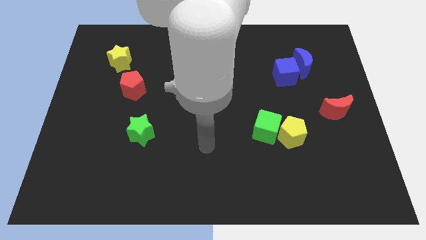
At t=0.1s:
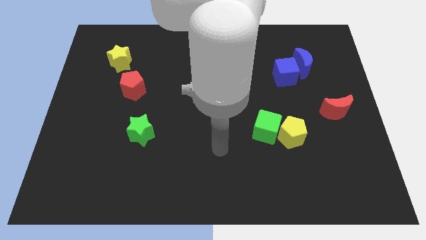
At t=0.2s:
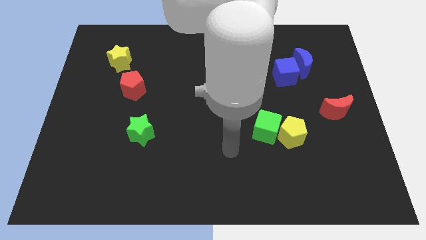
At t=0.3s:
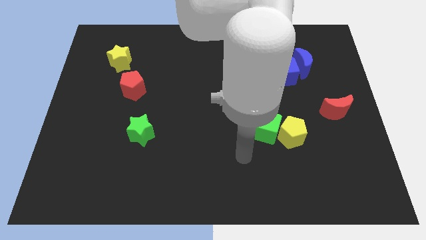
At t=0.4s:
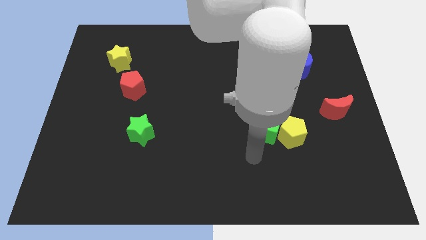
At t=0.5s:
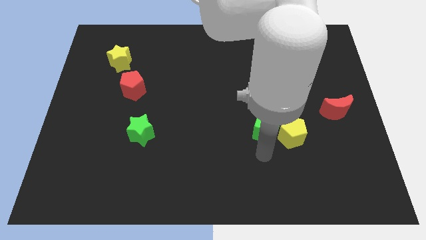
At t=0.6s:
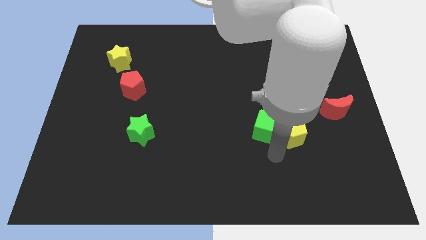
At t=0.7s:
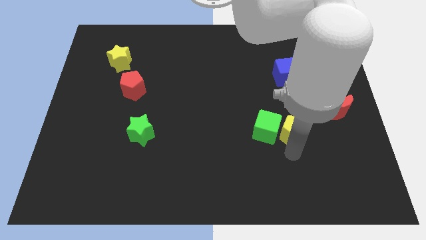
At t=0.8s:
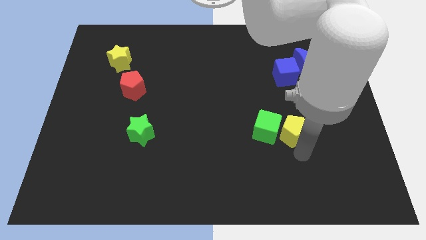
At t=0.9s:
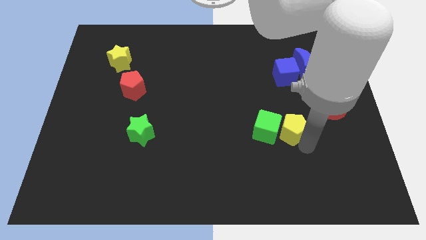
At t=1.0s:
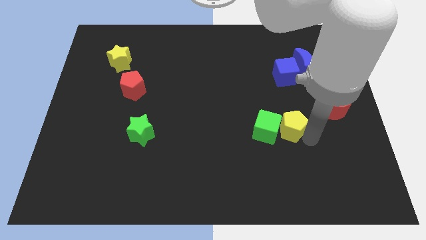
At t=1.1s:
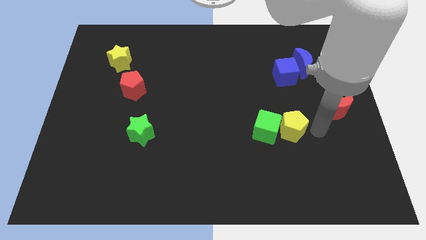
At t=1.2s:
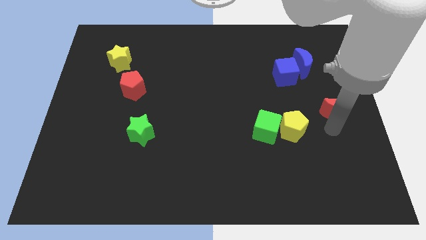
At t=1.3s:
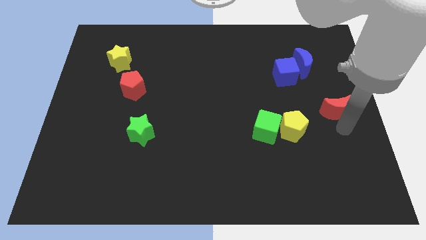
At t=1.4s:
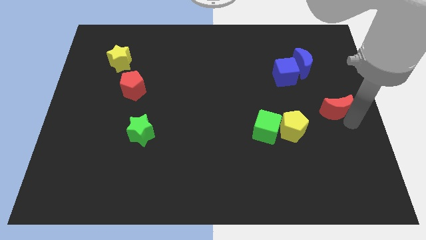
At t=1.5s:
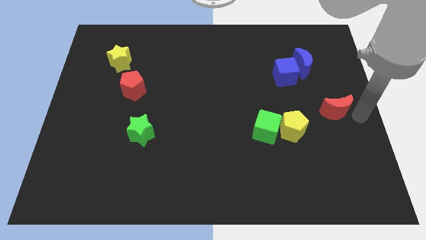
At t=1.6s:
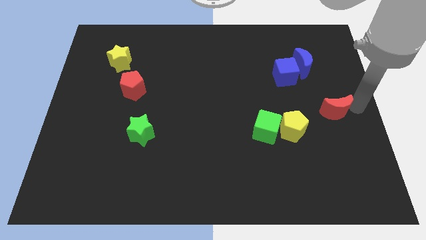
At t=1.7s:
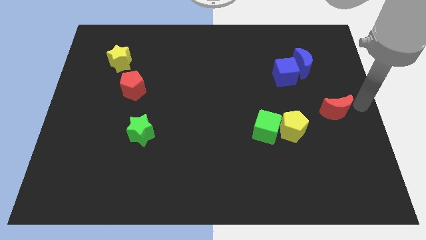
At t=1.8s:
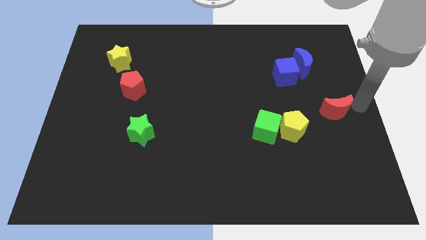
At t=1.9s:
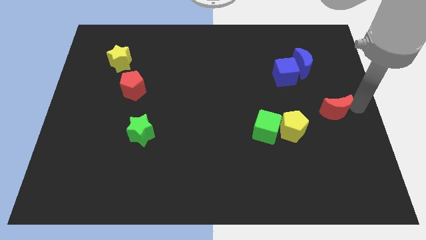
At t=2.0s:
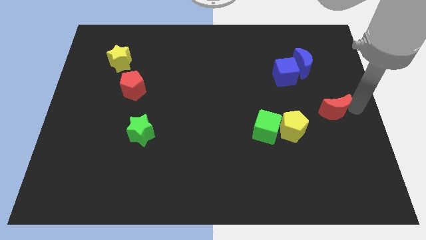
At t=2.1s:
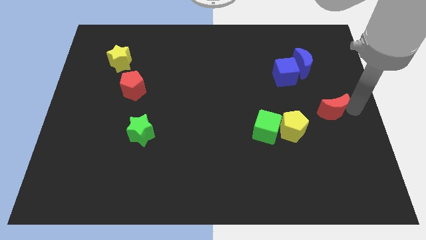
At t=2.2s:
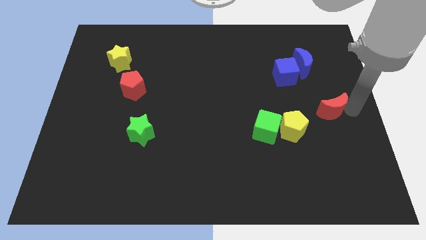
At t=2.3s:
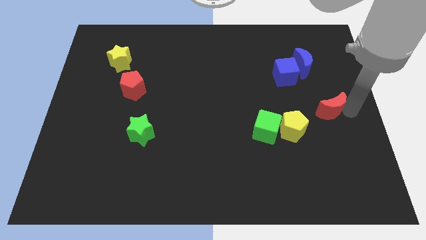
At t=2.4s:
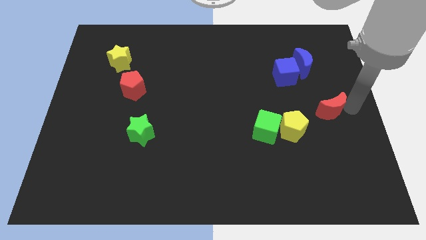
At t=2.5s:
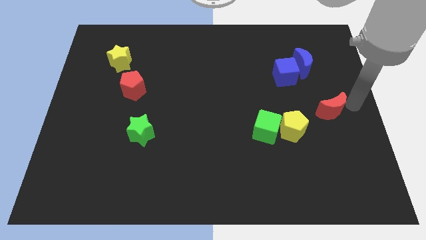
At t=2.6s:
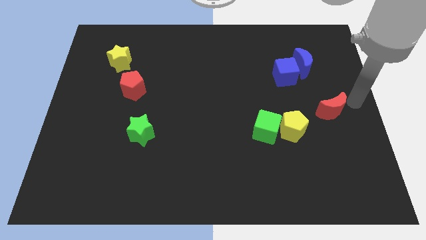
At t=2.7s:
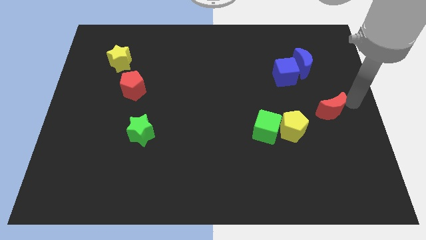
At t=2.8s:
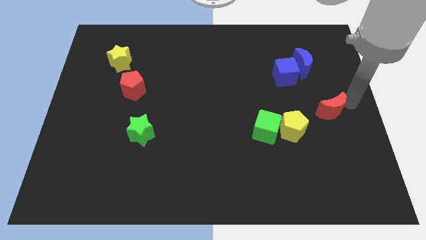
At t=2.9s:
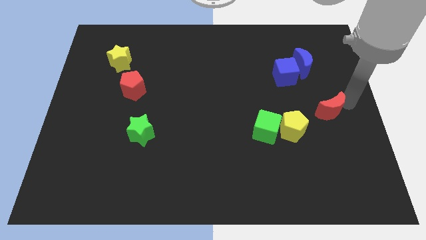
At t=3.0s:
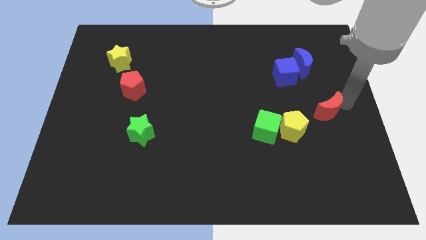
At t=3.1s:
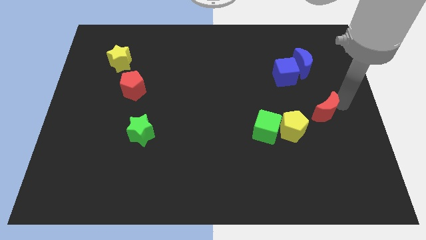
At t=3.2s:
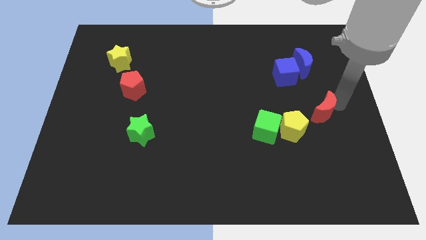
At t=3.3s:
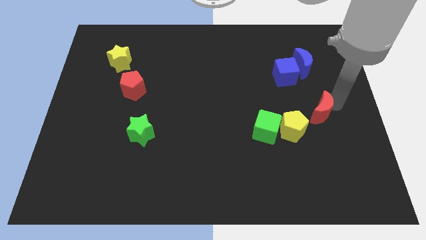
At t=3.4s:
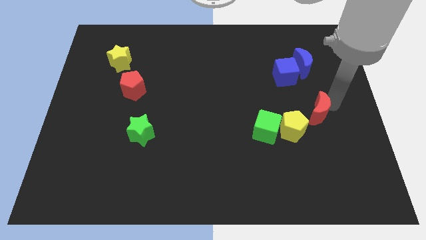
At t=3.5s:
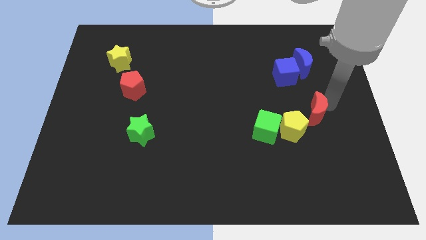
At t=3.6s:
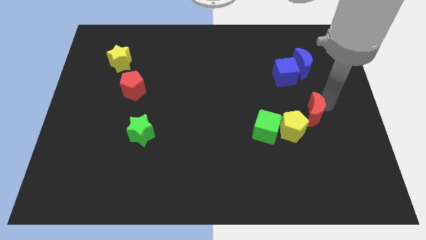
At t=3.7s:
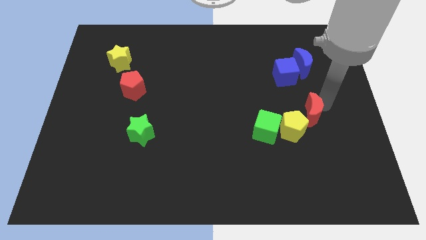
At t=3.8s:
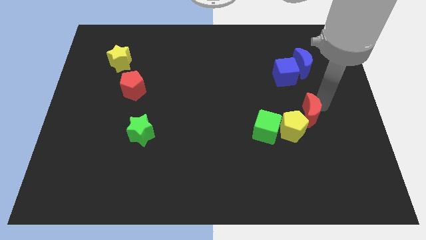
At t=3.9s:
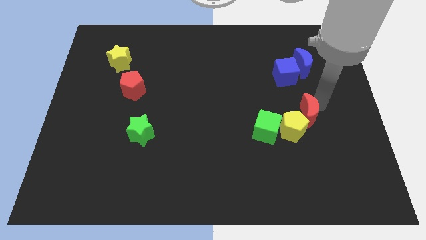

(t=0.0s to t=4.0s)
push the red moon a little to the left

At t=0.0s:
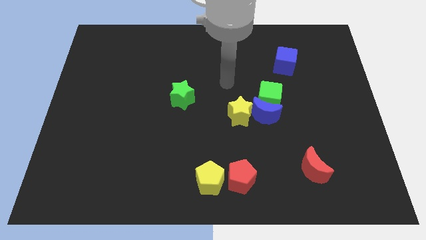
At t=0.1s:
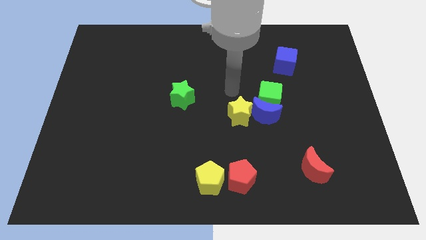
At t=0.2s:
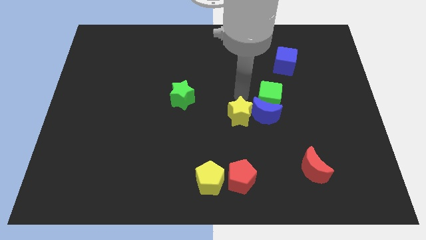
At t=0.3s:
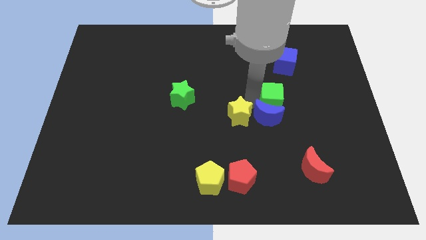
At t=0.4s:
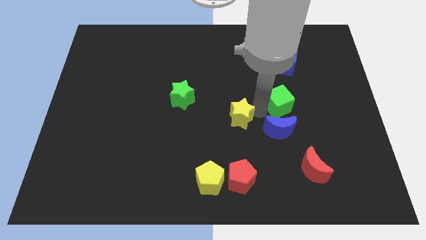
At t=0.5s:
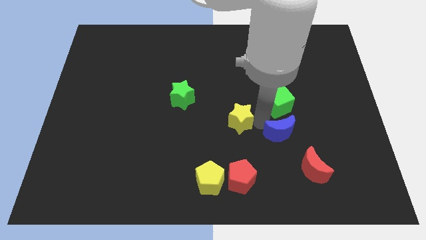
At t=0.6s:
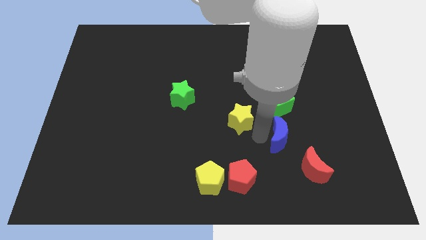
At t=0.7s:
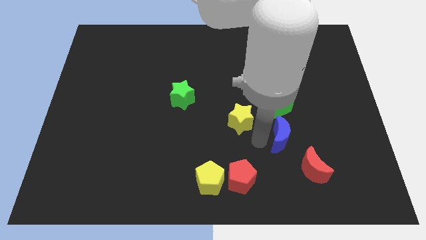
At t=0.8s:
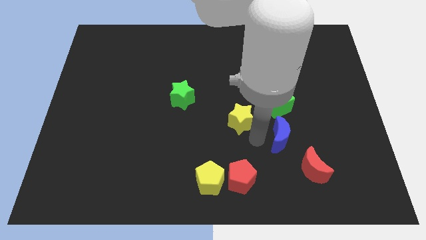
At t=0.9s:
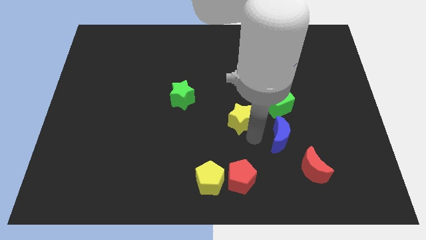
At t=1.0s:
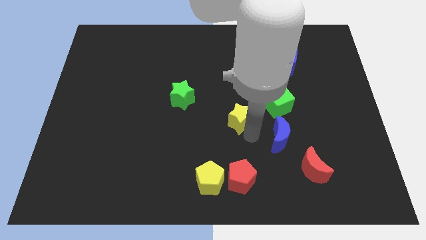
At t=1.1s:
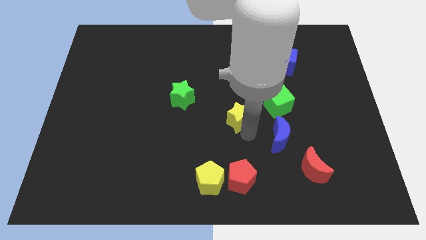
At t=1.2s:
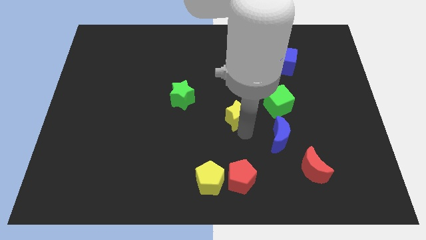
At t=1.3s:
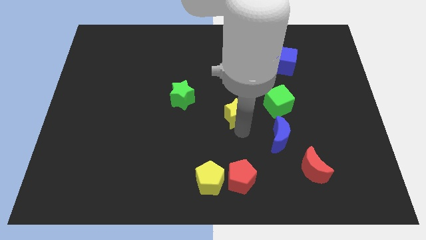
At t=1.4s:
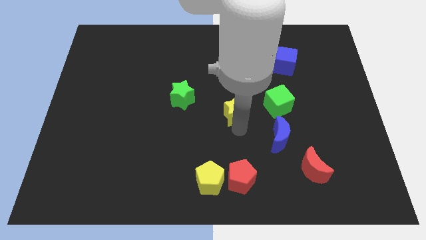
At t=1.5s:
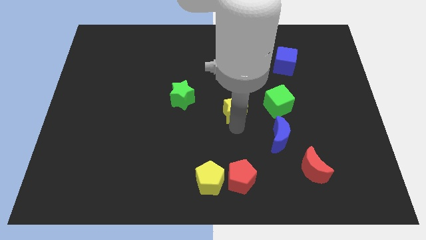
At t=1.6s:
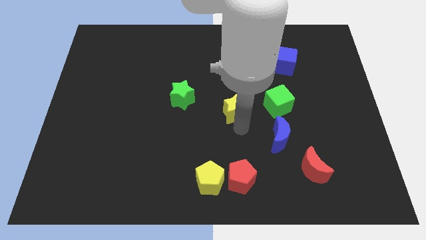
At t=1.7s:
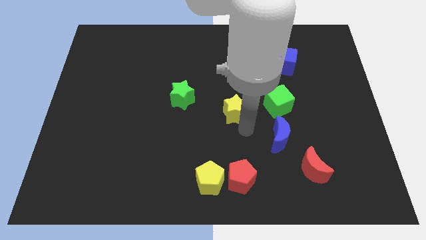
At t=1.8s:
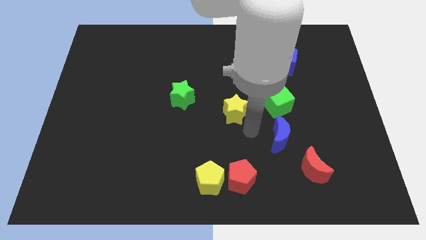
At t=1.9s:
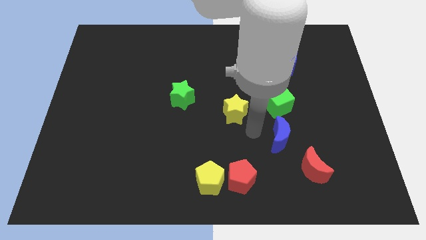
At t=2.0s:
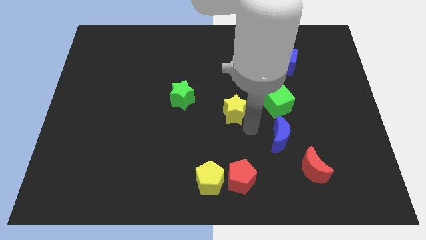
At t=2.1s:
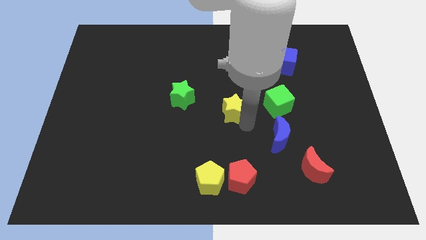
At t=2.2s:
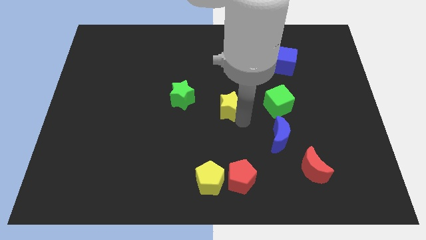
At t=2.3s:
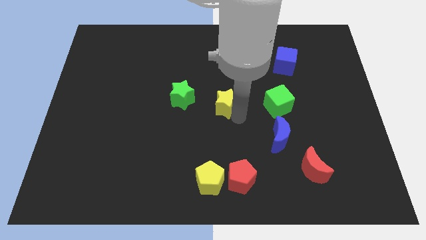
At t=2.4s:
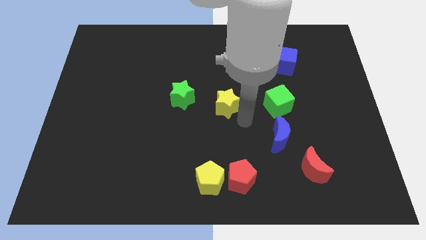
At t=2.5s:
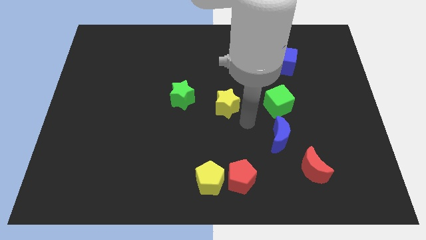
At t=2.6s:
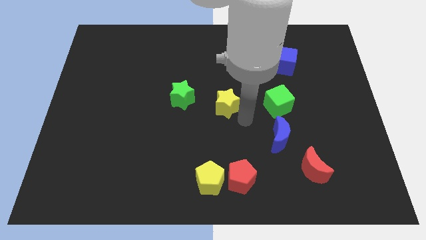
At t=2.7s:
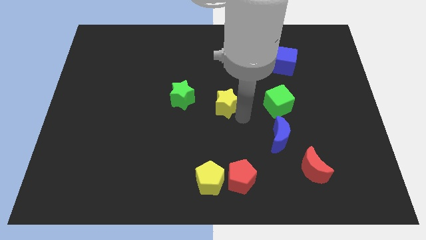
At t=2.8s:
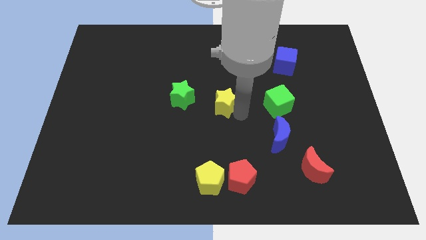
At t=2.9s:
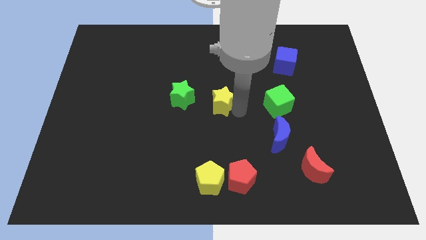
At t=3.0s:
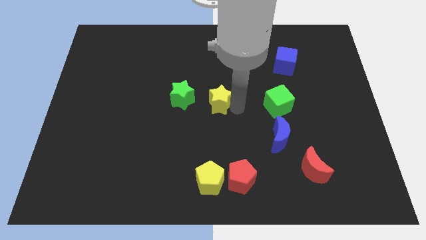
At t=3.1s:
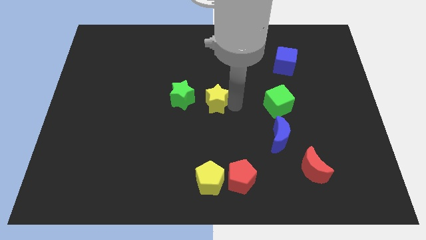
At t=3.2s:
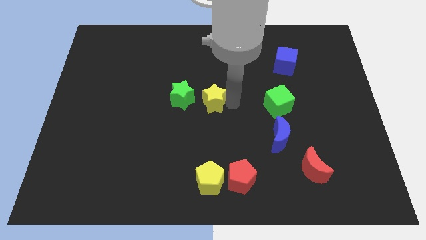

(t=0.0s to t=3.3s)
slide the yellow star upwards and left diagonally somewhat

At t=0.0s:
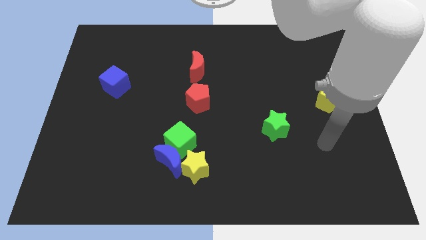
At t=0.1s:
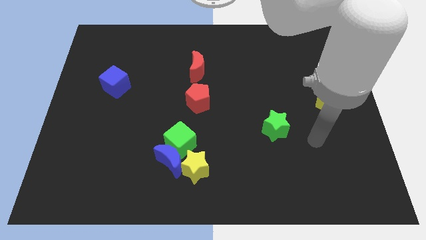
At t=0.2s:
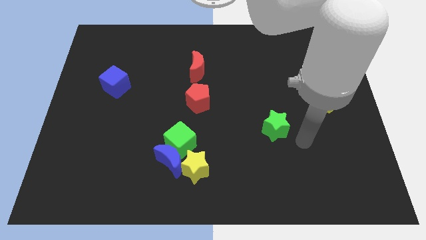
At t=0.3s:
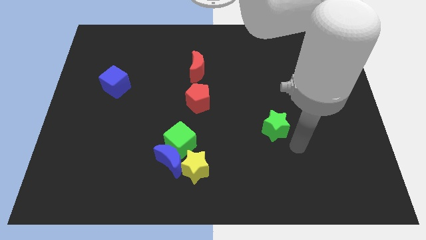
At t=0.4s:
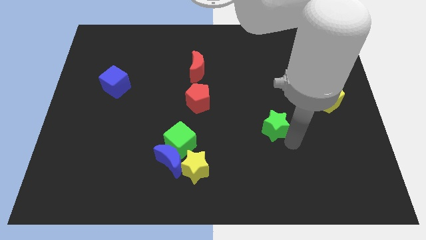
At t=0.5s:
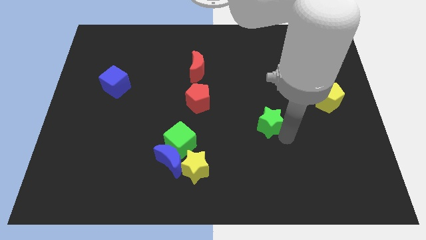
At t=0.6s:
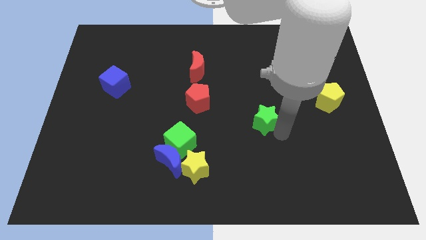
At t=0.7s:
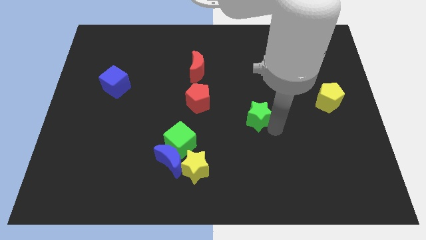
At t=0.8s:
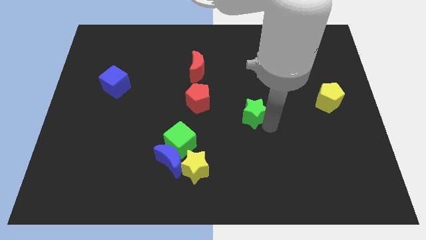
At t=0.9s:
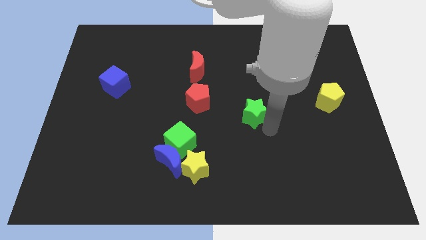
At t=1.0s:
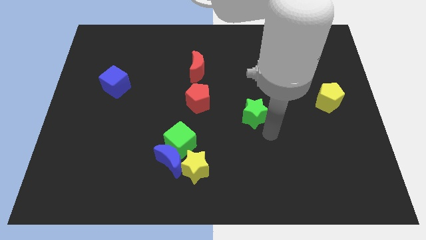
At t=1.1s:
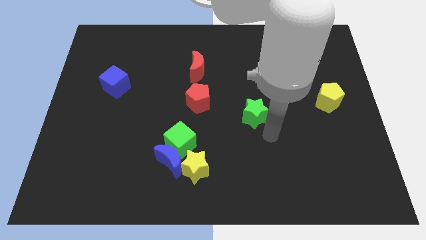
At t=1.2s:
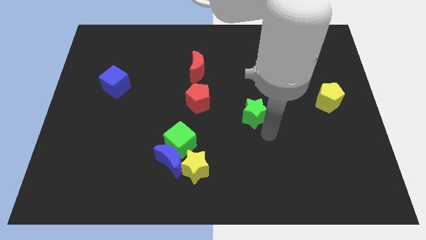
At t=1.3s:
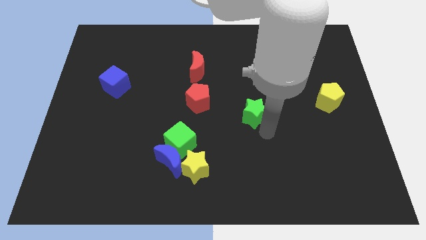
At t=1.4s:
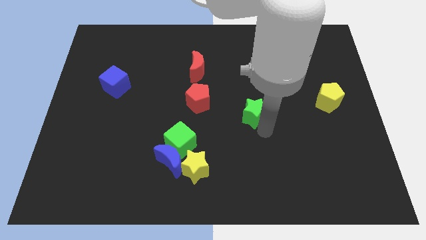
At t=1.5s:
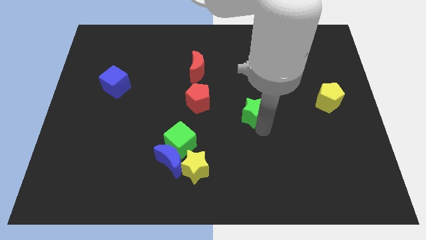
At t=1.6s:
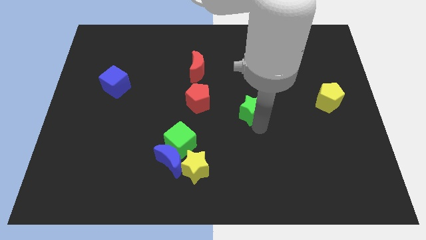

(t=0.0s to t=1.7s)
push the green star diagonally upwards and left somewhat
